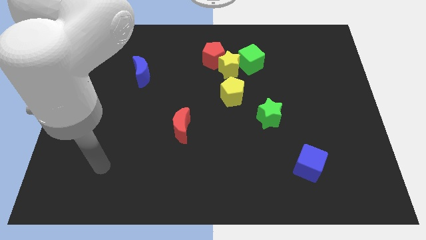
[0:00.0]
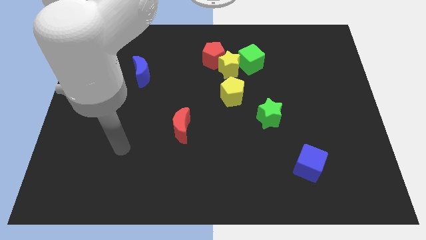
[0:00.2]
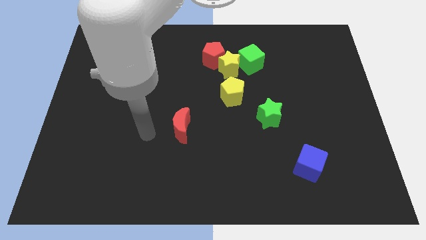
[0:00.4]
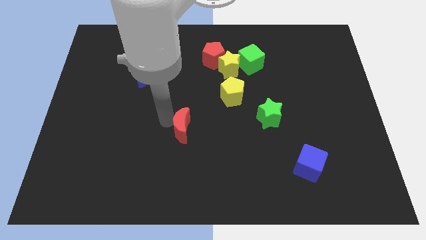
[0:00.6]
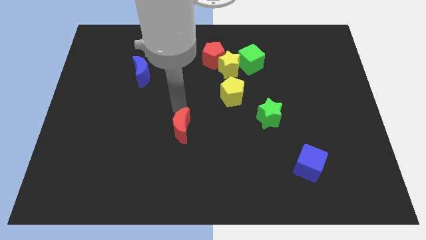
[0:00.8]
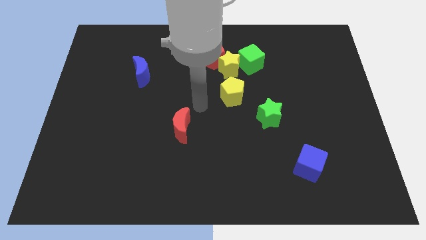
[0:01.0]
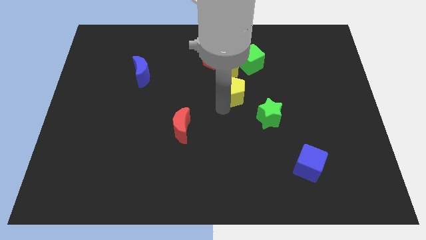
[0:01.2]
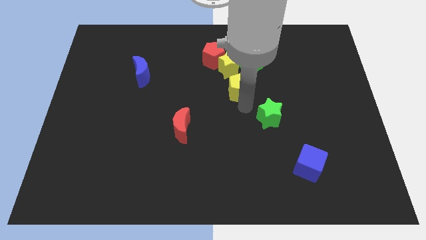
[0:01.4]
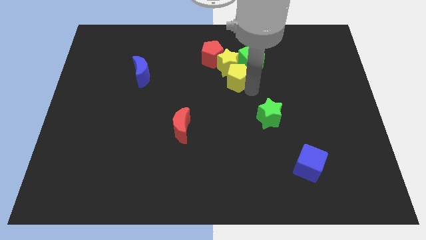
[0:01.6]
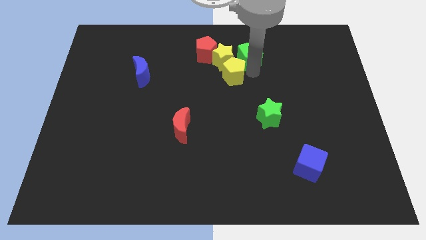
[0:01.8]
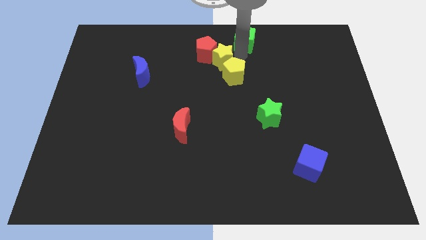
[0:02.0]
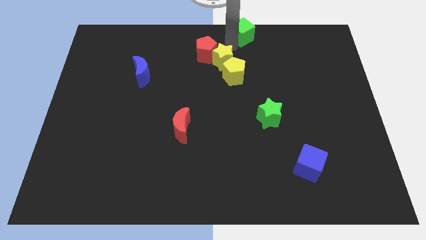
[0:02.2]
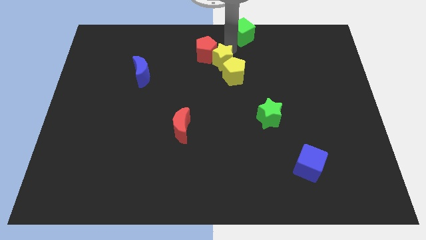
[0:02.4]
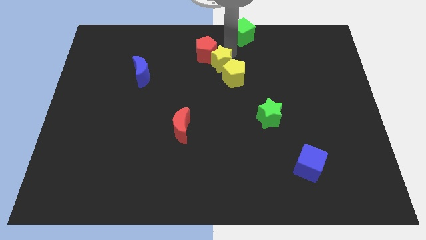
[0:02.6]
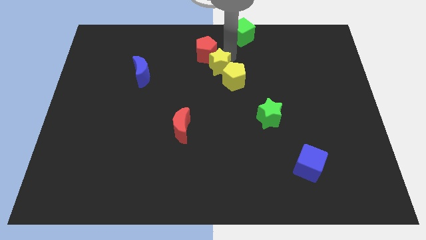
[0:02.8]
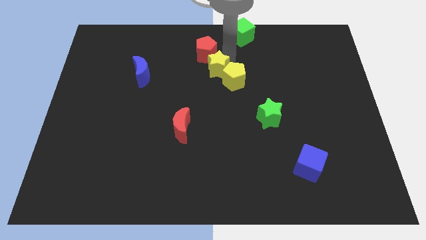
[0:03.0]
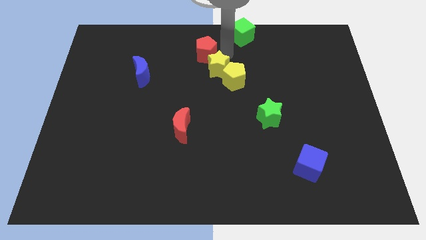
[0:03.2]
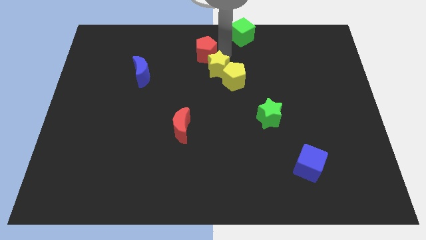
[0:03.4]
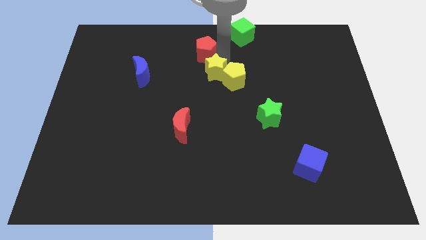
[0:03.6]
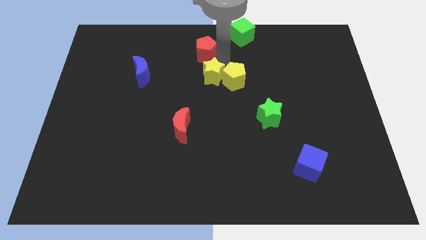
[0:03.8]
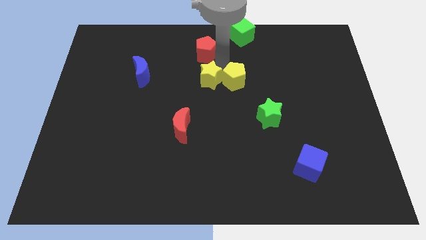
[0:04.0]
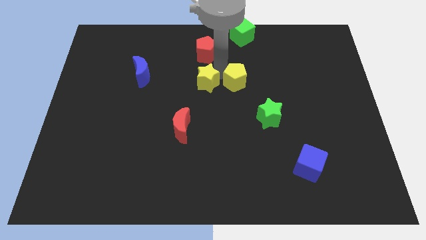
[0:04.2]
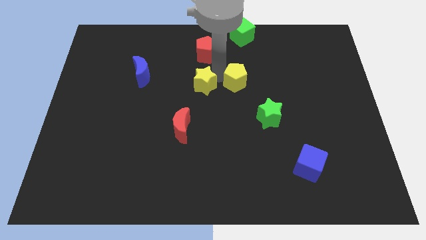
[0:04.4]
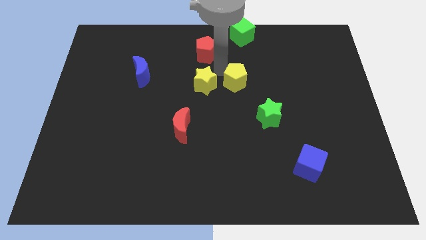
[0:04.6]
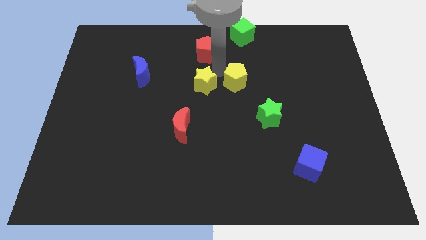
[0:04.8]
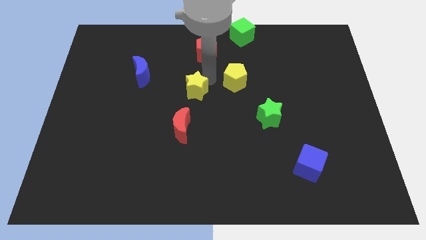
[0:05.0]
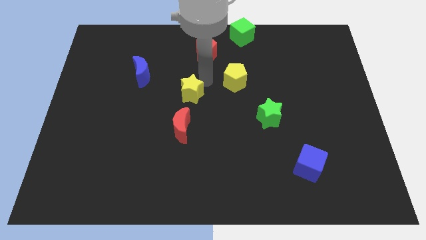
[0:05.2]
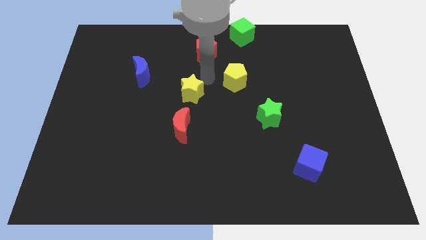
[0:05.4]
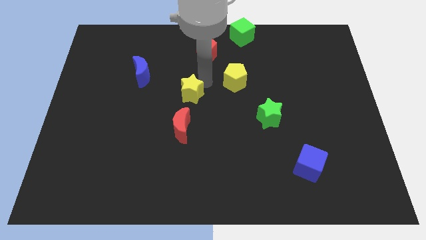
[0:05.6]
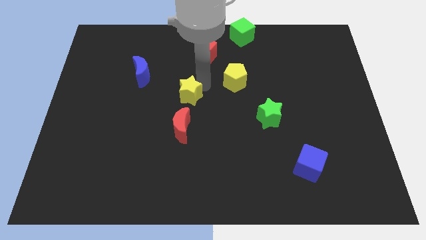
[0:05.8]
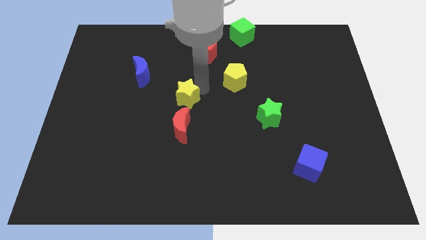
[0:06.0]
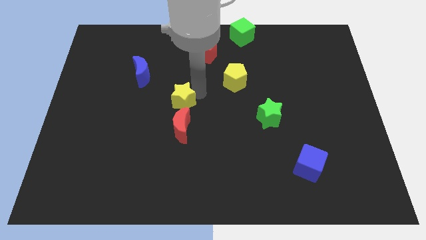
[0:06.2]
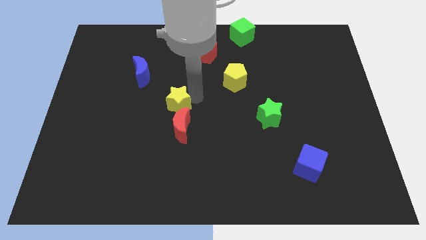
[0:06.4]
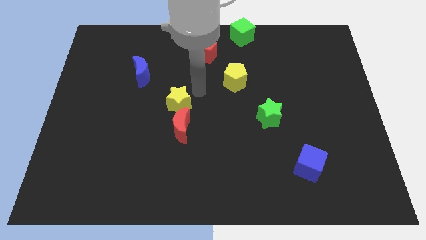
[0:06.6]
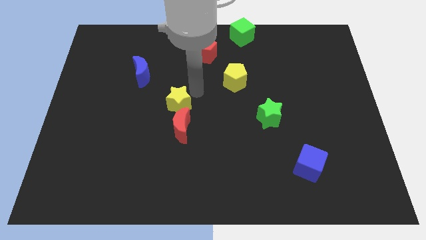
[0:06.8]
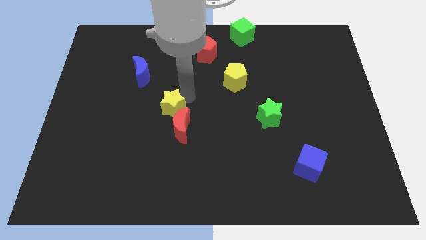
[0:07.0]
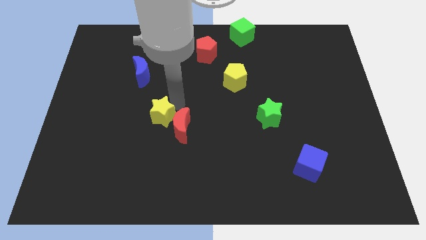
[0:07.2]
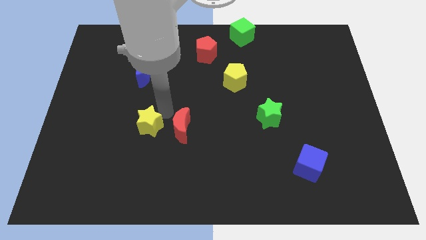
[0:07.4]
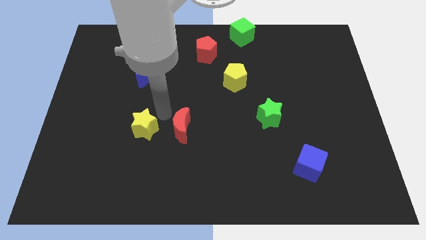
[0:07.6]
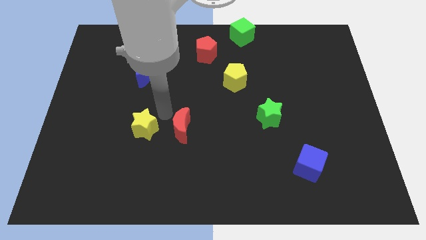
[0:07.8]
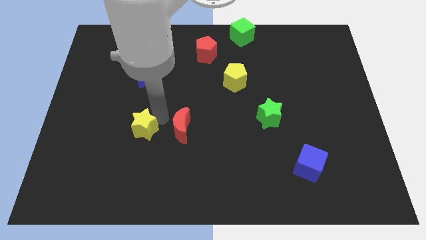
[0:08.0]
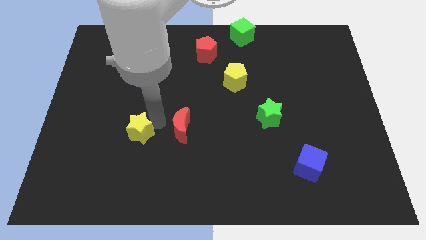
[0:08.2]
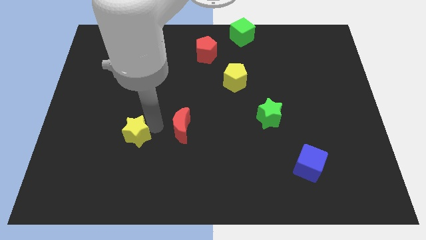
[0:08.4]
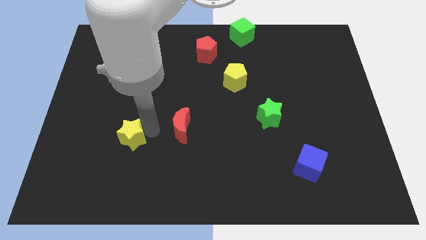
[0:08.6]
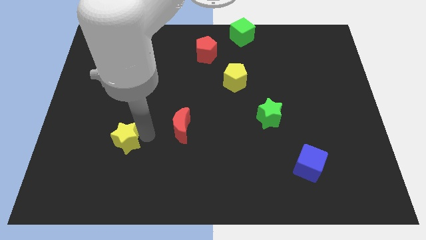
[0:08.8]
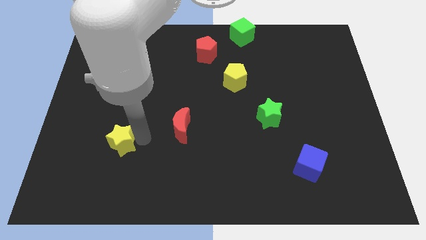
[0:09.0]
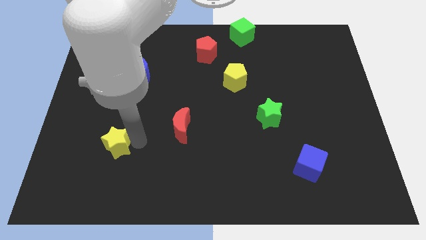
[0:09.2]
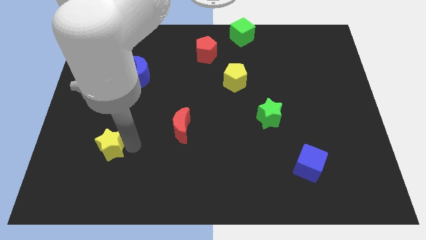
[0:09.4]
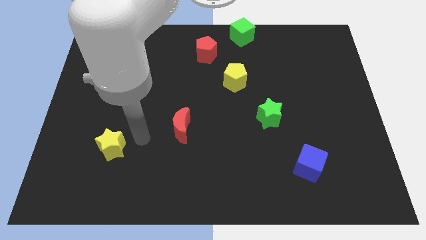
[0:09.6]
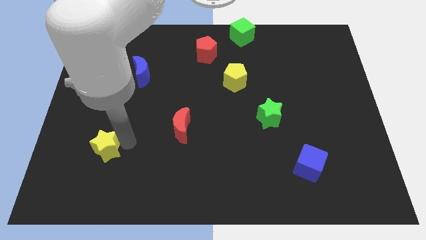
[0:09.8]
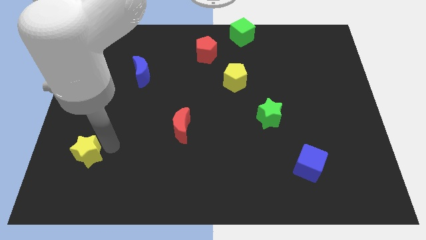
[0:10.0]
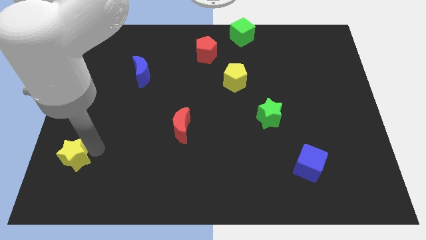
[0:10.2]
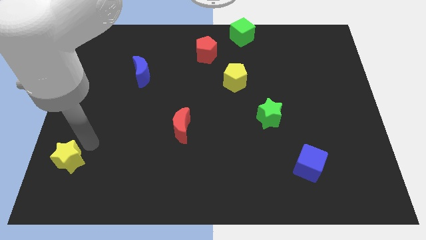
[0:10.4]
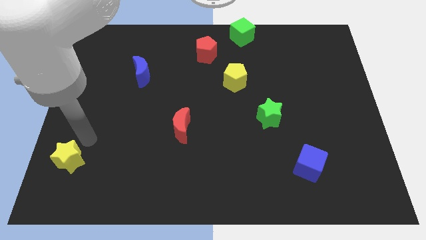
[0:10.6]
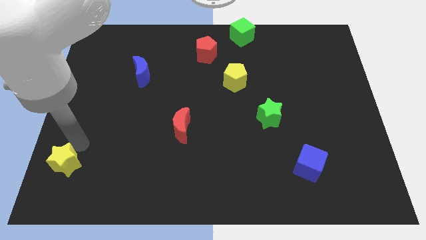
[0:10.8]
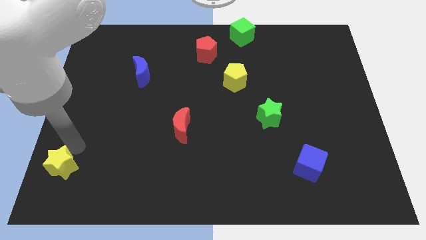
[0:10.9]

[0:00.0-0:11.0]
slide the yellow star to the bottom left of the board
